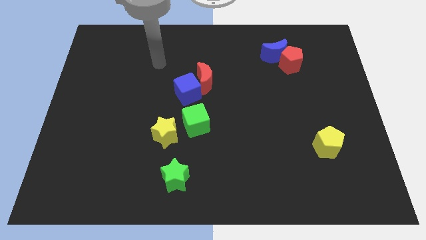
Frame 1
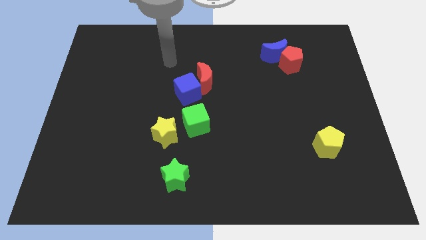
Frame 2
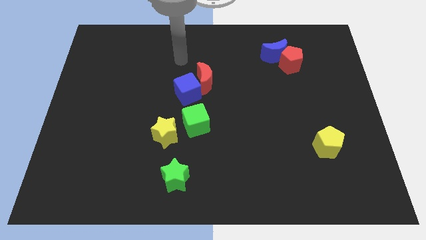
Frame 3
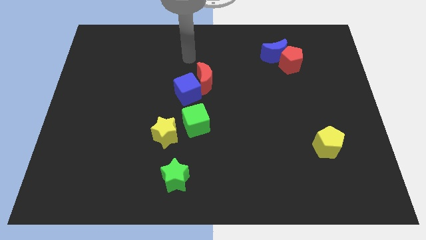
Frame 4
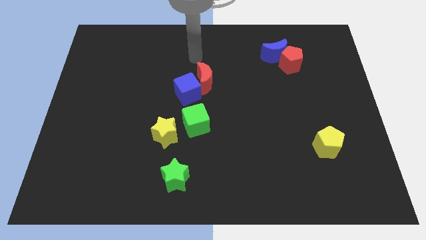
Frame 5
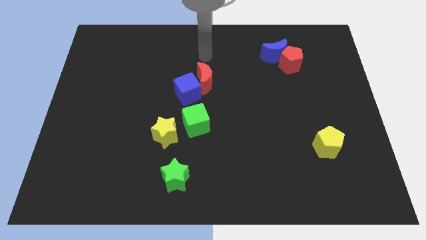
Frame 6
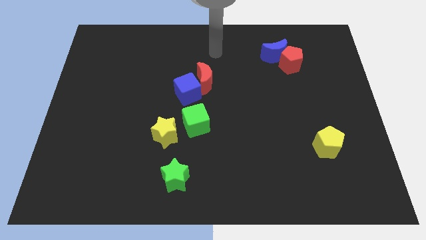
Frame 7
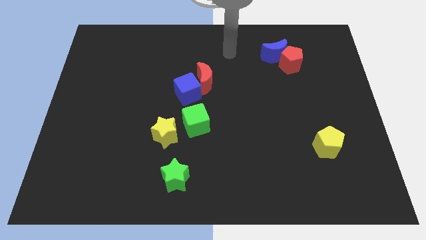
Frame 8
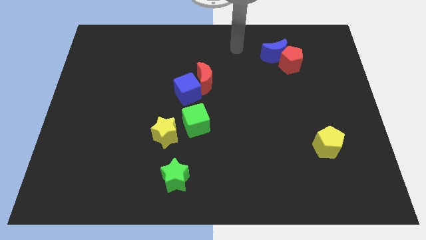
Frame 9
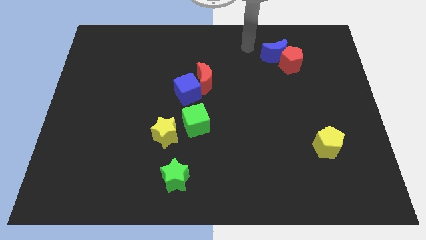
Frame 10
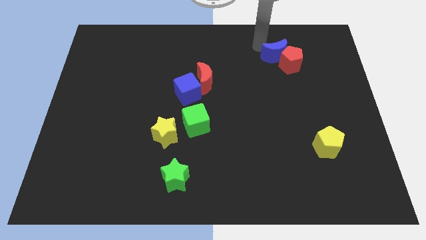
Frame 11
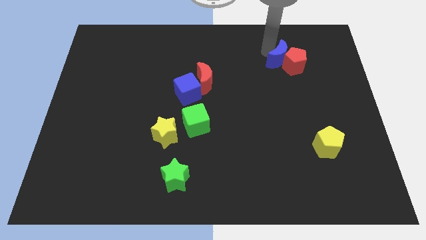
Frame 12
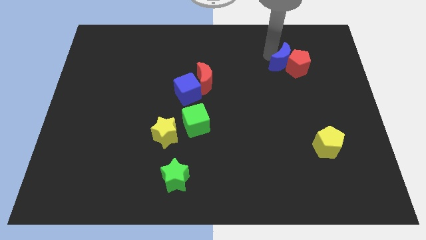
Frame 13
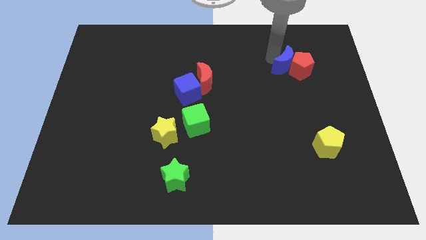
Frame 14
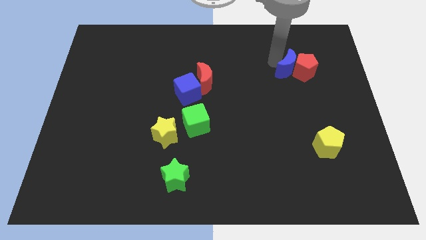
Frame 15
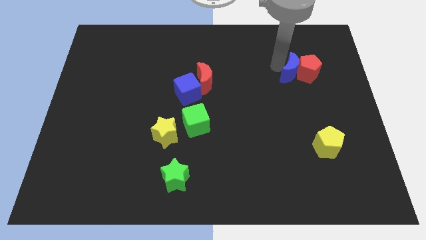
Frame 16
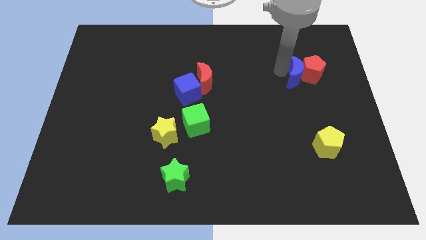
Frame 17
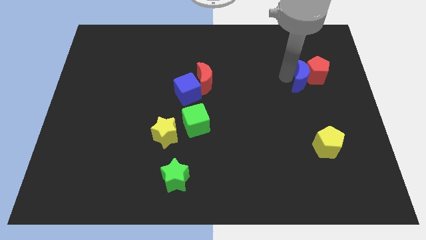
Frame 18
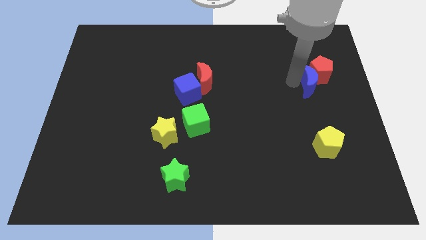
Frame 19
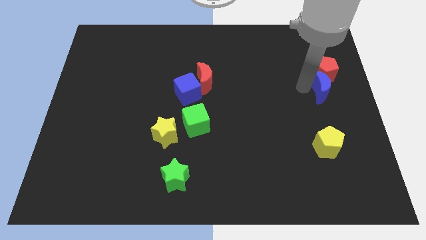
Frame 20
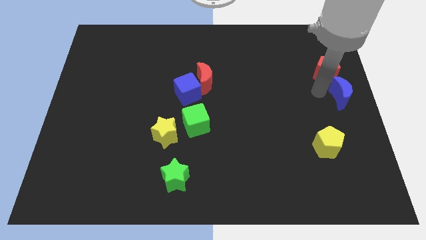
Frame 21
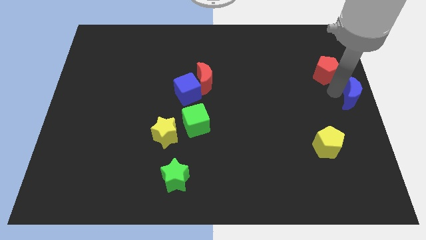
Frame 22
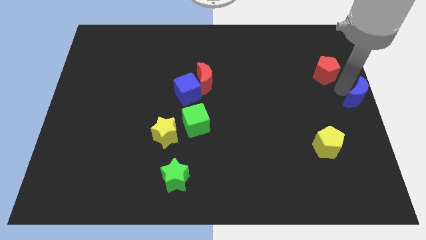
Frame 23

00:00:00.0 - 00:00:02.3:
separate the red pentagon from the blue moon

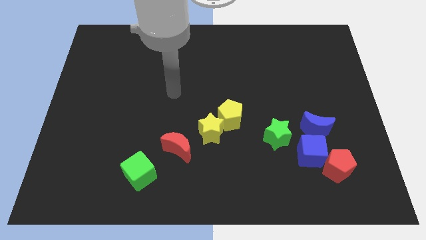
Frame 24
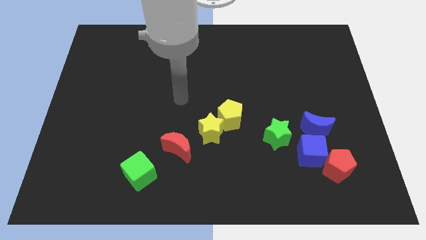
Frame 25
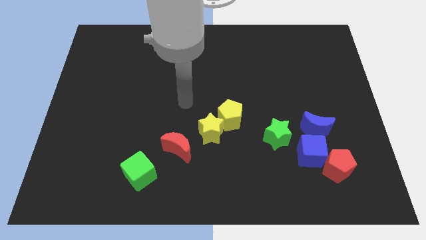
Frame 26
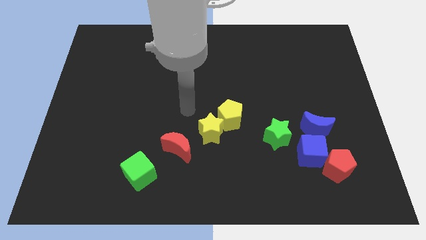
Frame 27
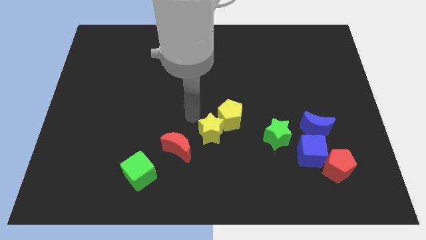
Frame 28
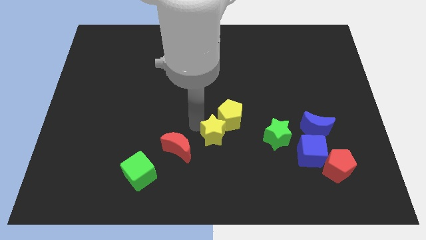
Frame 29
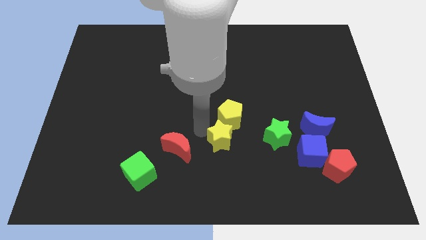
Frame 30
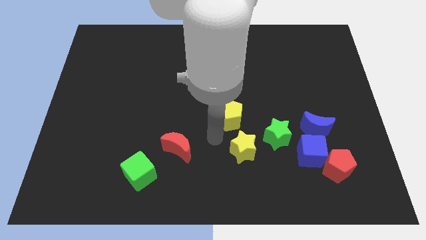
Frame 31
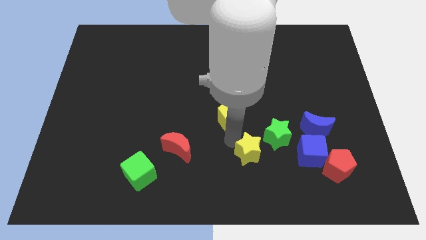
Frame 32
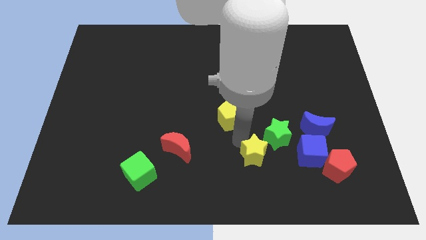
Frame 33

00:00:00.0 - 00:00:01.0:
pull the yellow pentagon apart from the yellow star

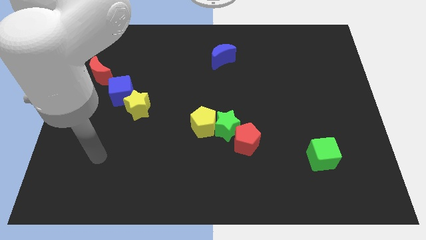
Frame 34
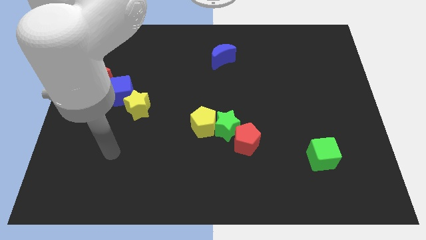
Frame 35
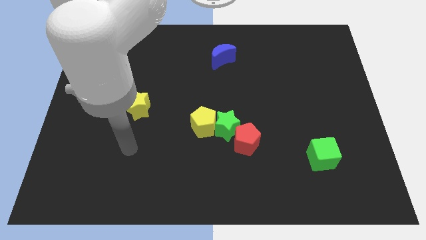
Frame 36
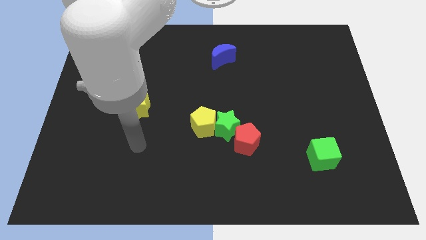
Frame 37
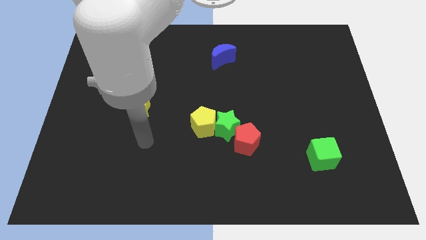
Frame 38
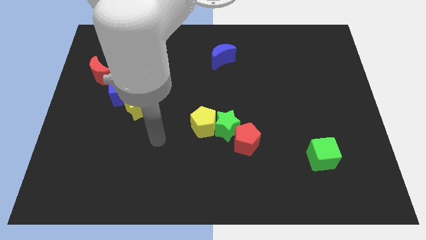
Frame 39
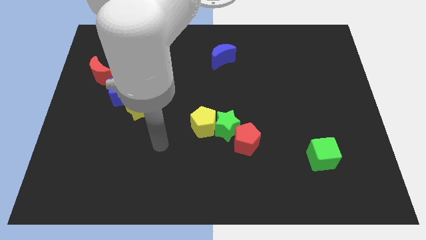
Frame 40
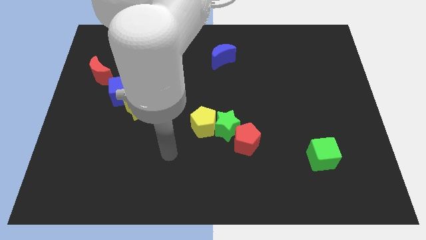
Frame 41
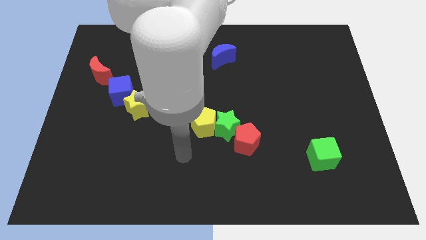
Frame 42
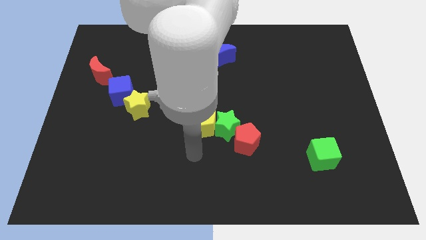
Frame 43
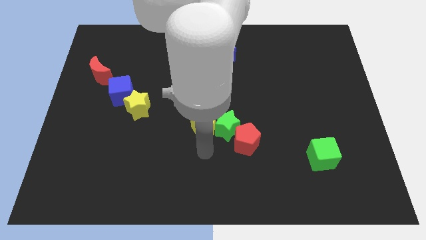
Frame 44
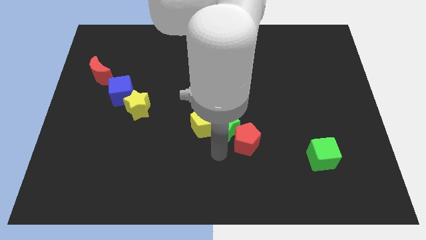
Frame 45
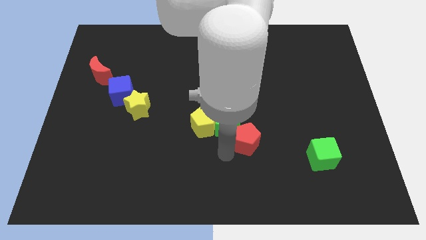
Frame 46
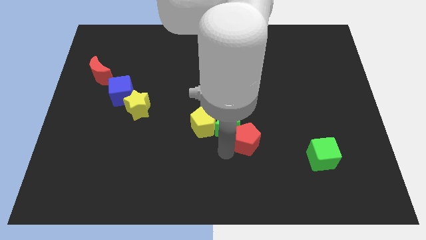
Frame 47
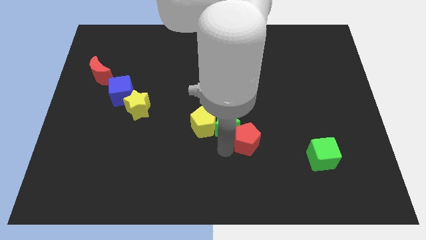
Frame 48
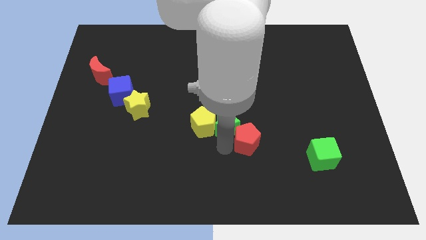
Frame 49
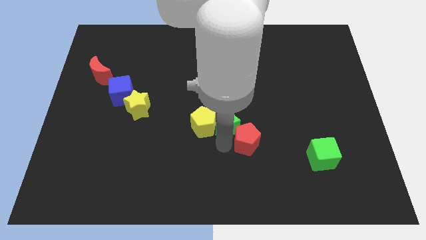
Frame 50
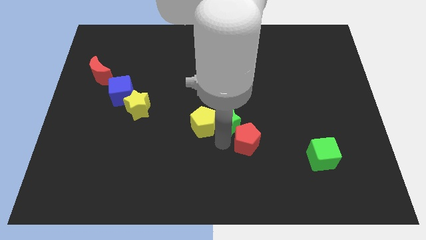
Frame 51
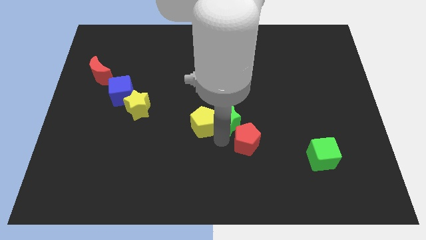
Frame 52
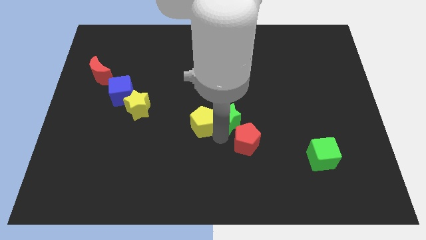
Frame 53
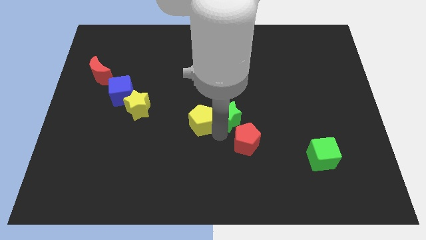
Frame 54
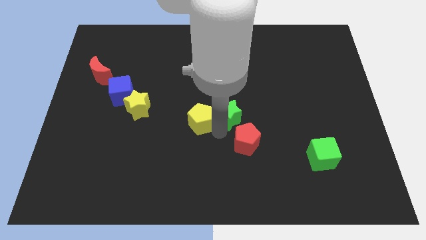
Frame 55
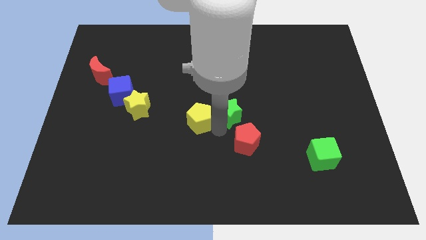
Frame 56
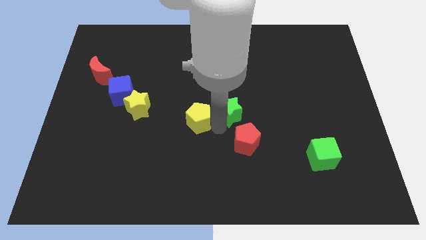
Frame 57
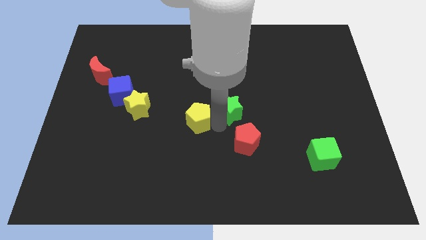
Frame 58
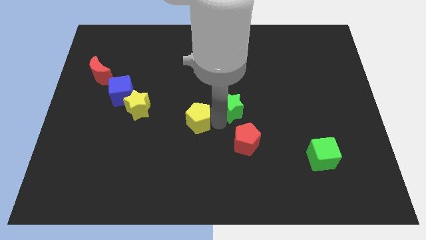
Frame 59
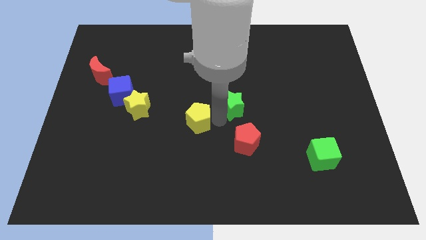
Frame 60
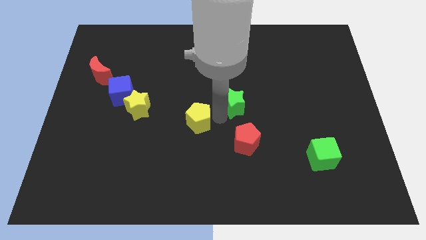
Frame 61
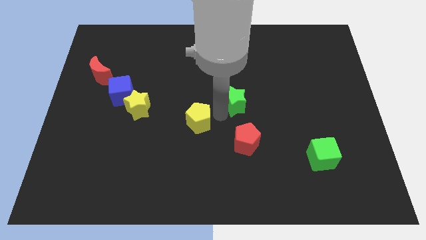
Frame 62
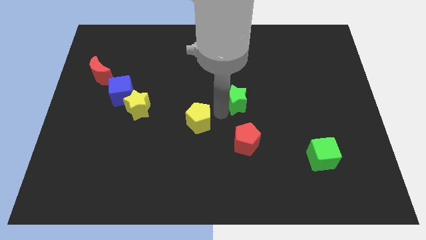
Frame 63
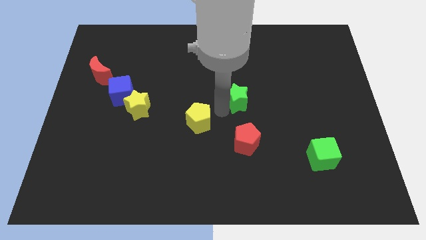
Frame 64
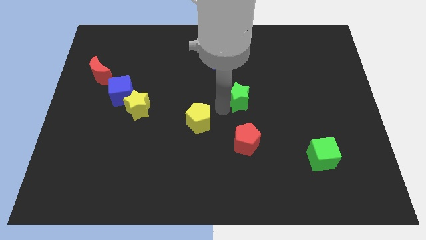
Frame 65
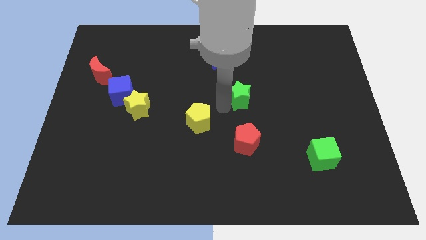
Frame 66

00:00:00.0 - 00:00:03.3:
pull the green star apart from the yellow pentagon and red pentagon

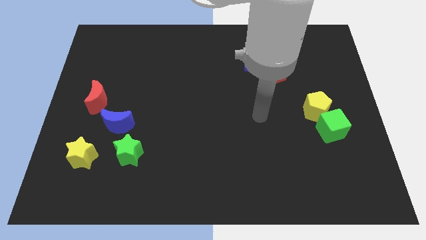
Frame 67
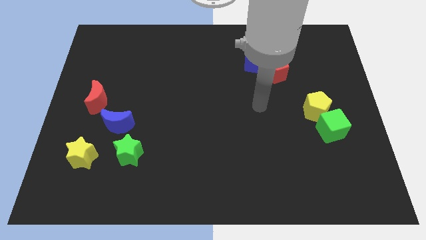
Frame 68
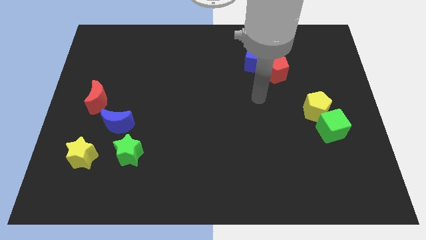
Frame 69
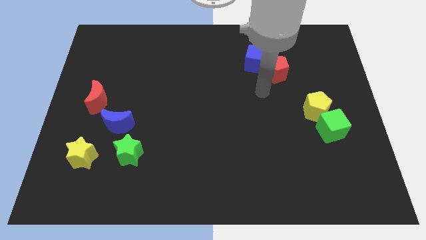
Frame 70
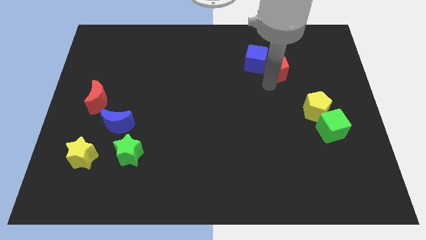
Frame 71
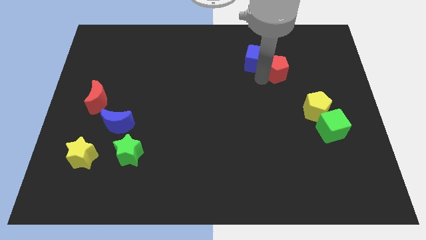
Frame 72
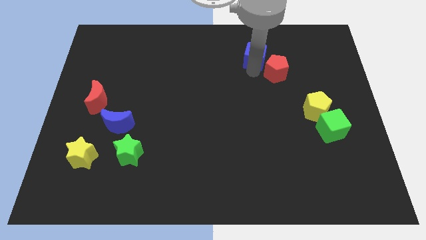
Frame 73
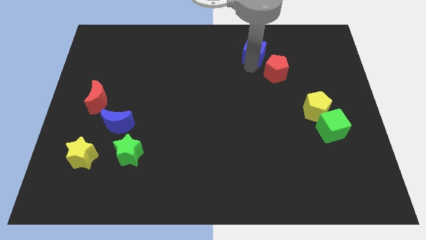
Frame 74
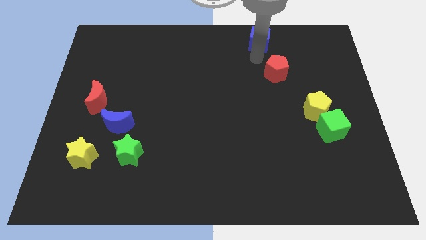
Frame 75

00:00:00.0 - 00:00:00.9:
move the red pentagon away from the blue cube

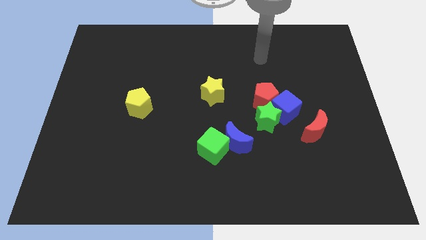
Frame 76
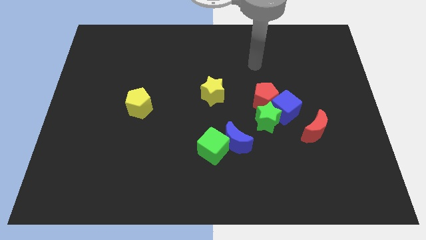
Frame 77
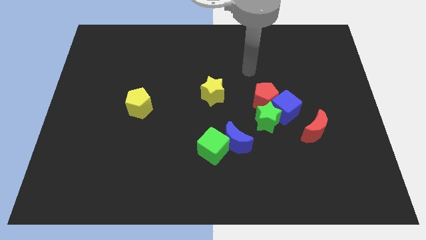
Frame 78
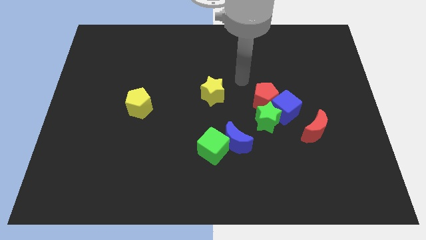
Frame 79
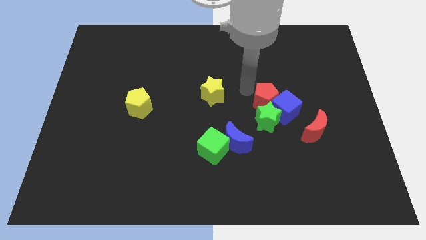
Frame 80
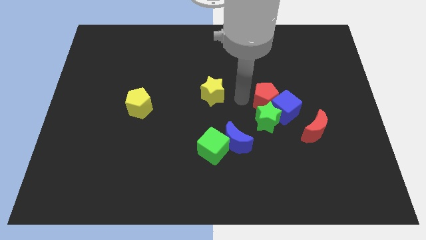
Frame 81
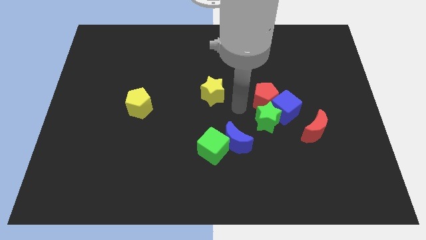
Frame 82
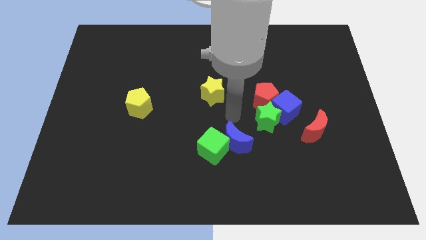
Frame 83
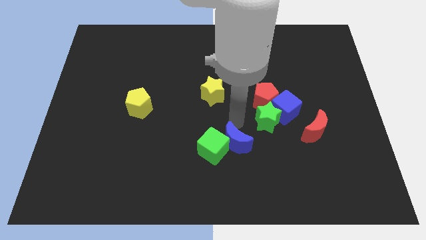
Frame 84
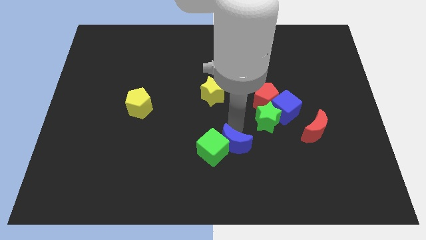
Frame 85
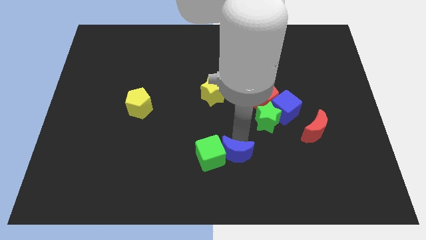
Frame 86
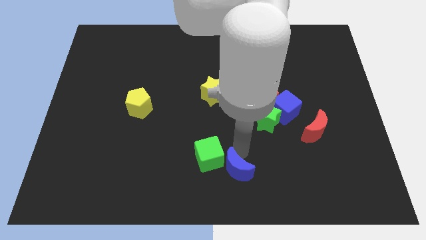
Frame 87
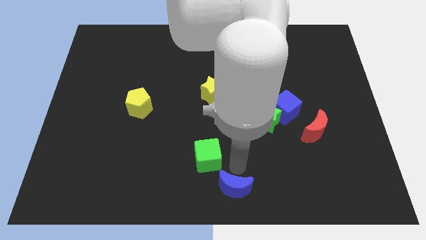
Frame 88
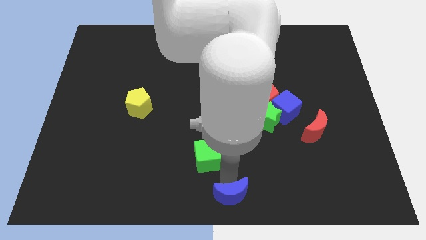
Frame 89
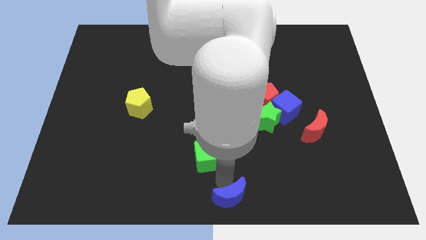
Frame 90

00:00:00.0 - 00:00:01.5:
pull the green cube apart from the blue moon

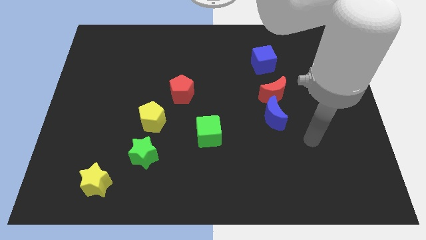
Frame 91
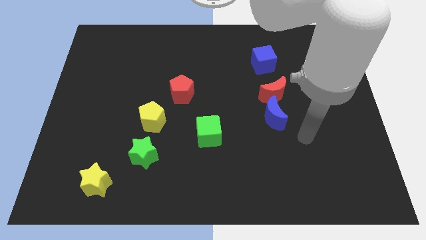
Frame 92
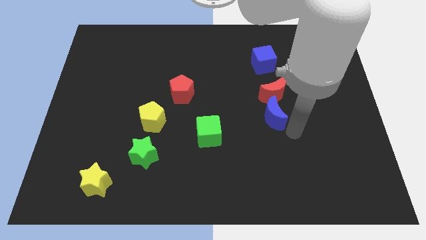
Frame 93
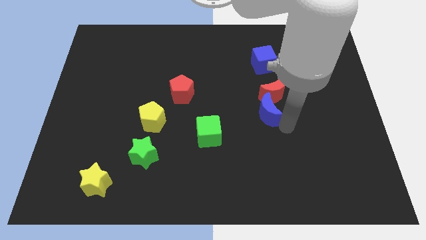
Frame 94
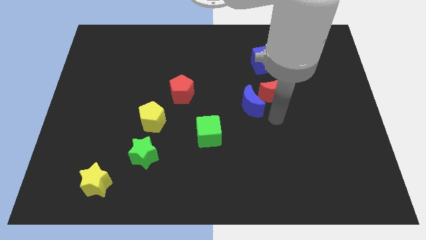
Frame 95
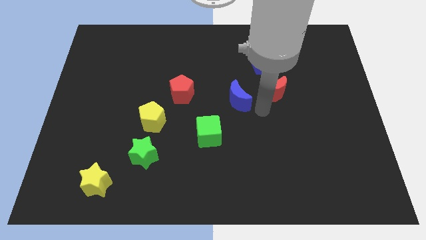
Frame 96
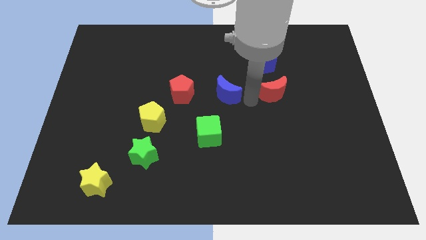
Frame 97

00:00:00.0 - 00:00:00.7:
move the red moon away from the blue moon
